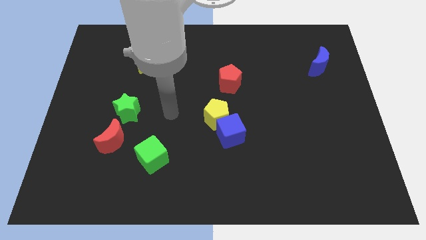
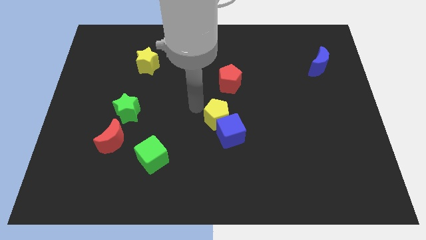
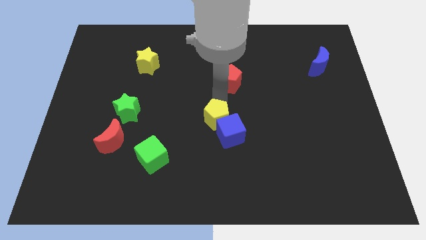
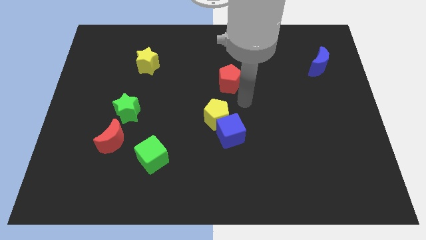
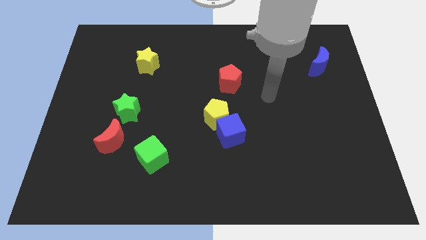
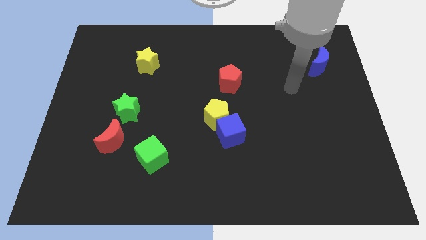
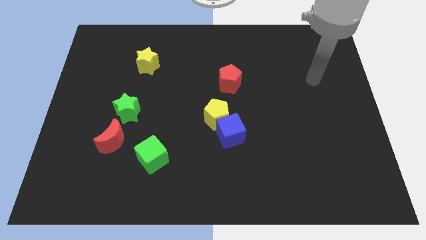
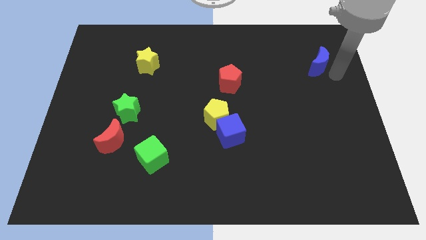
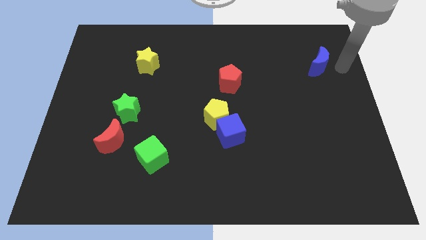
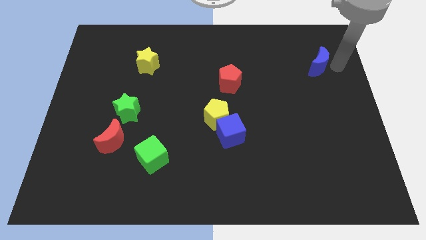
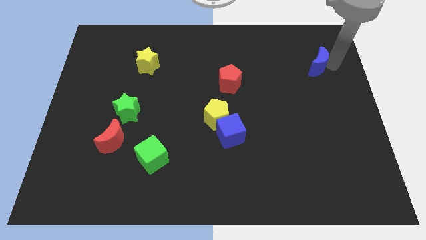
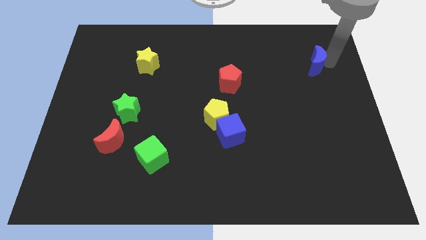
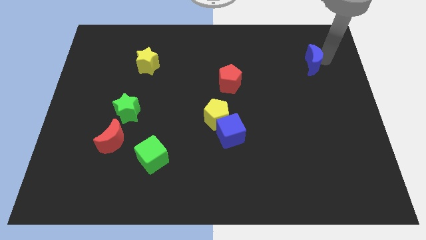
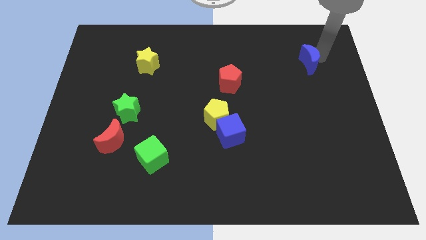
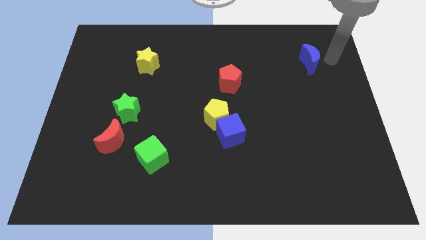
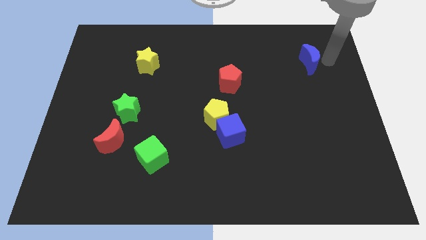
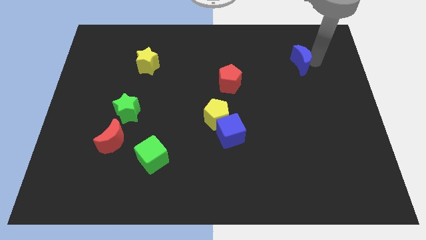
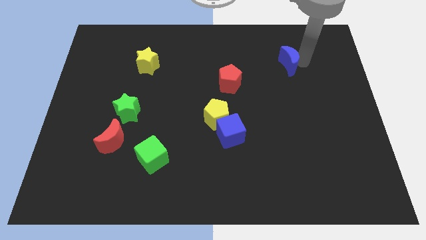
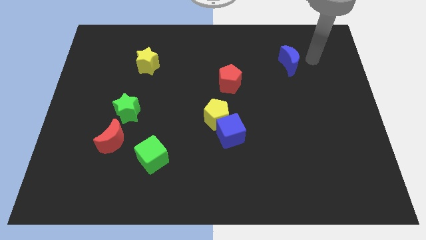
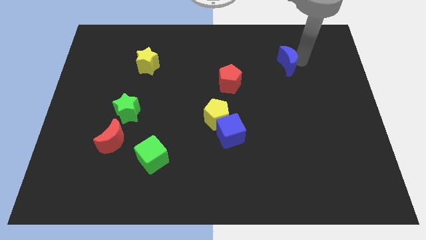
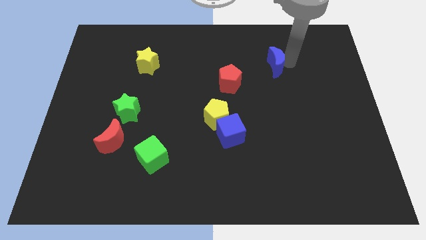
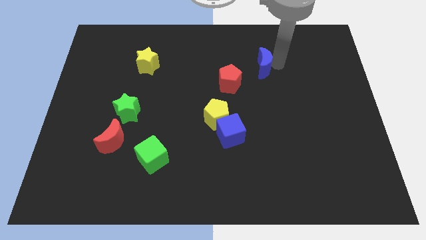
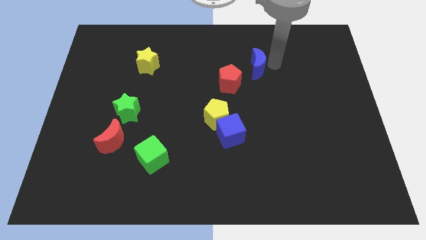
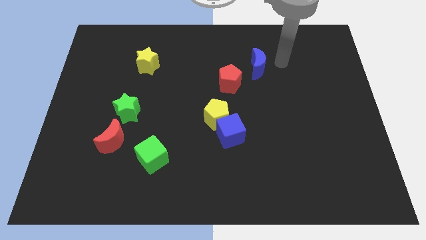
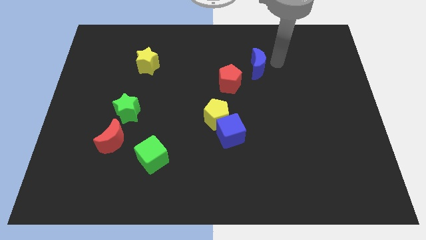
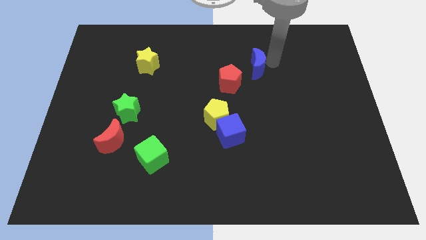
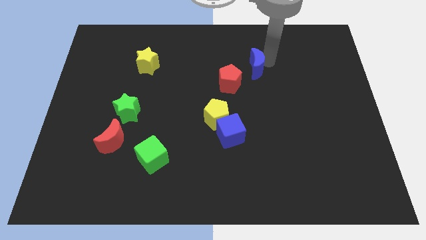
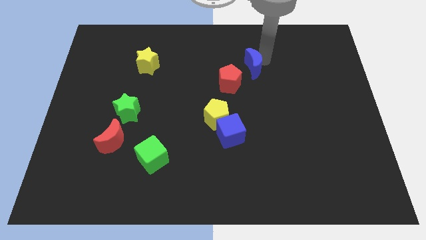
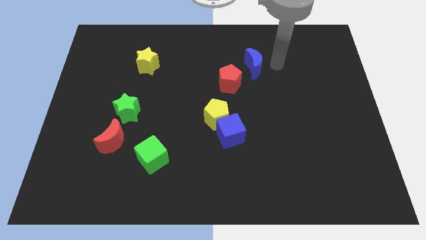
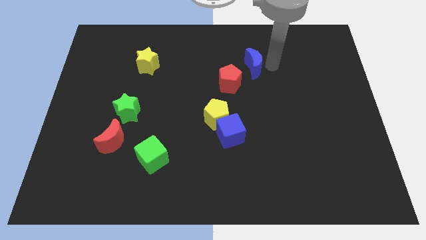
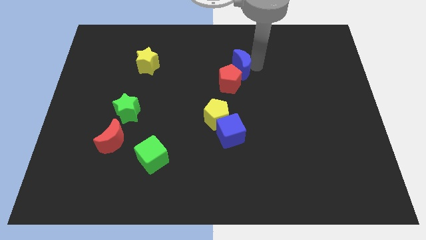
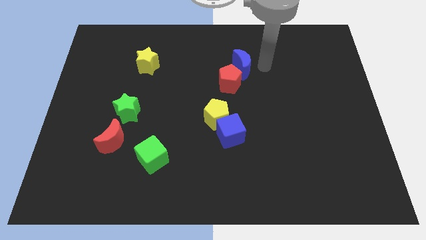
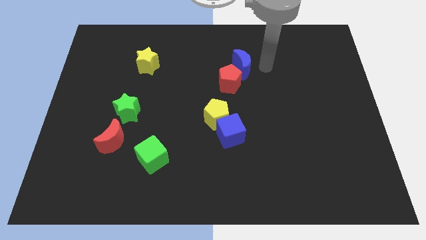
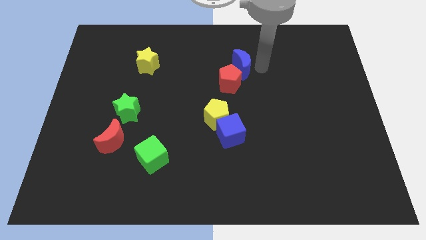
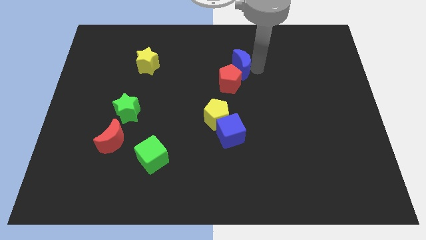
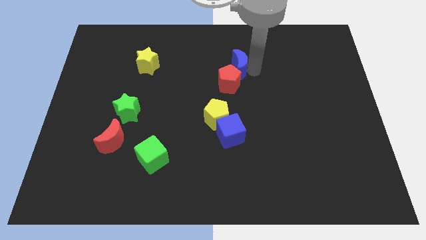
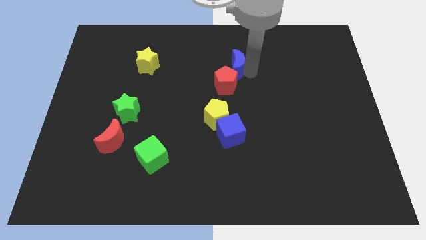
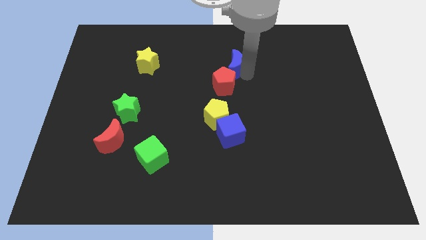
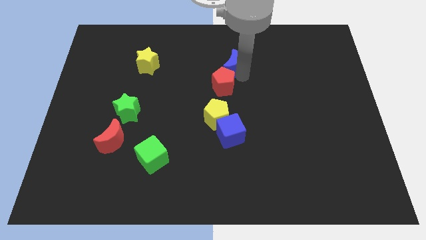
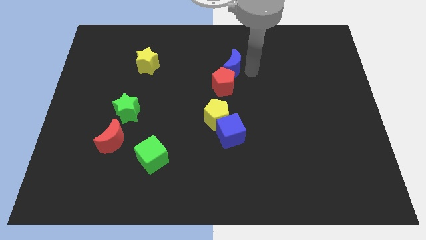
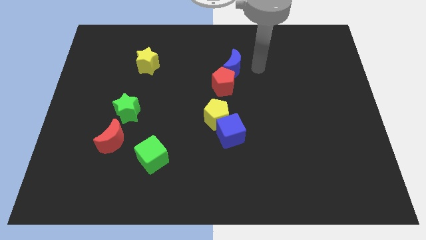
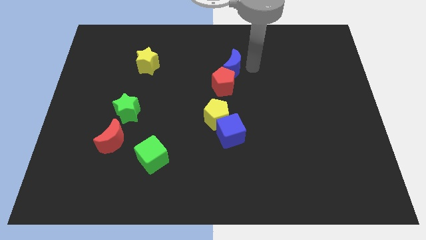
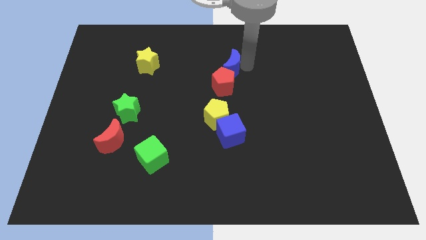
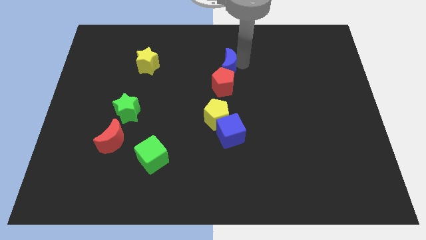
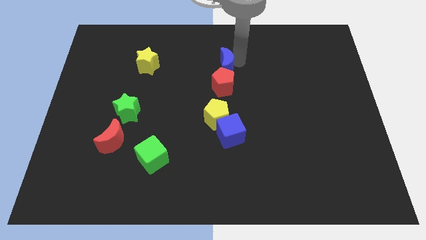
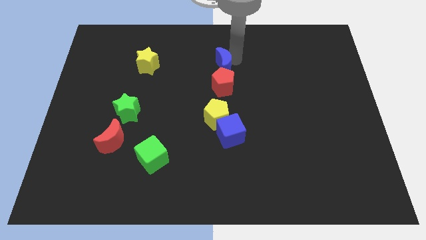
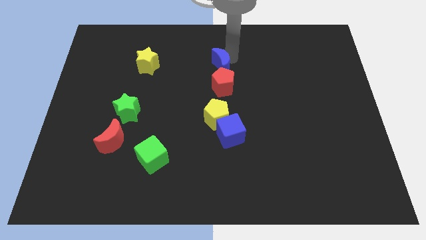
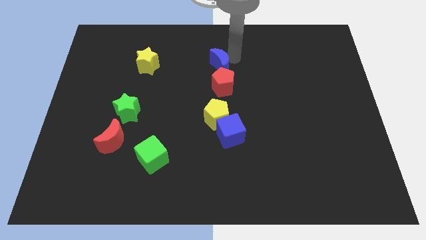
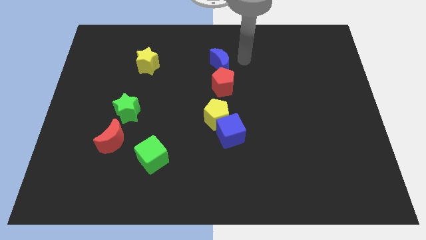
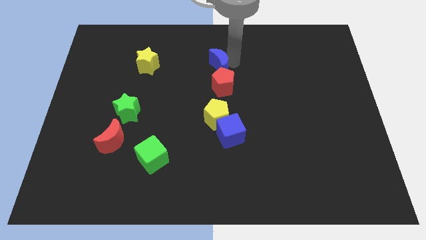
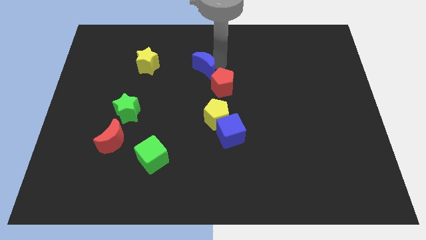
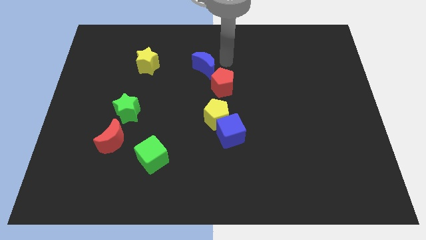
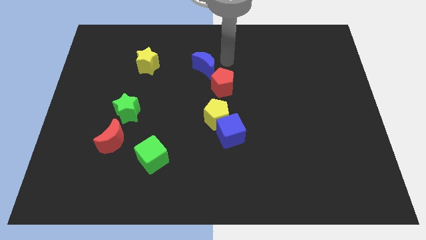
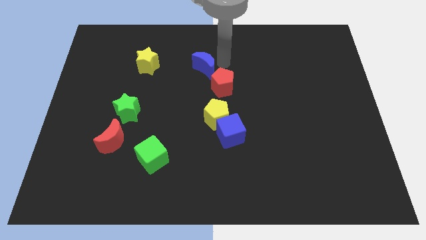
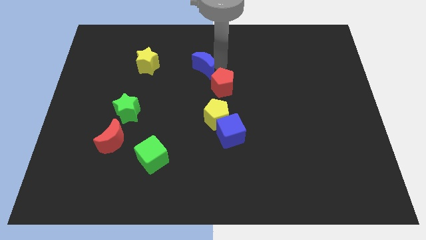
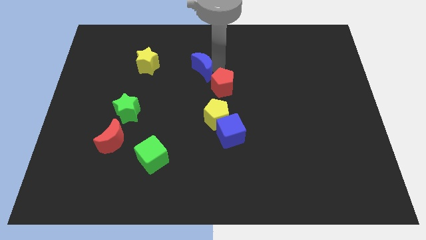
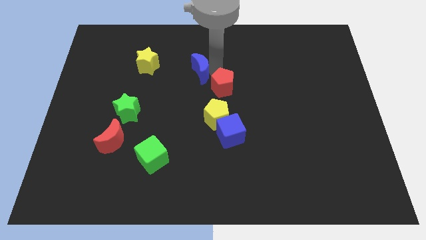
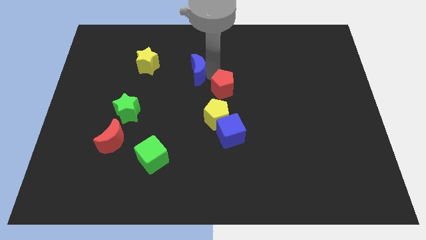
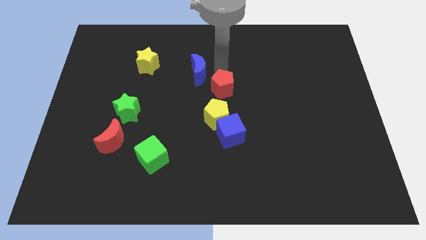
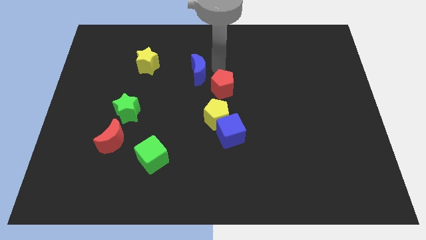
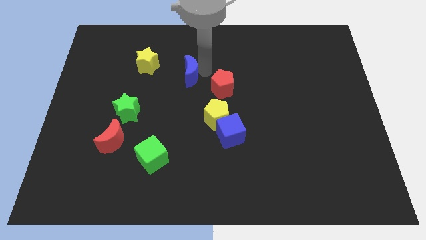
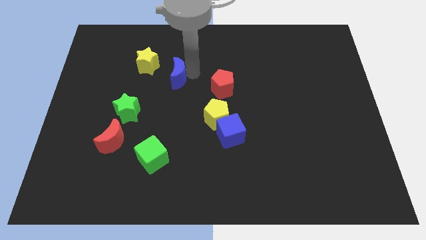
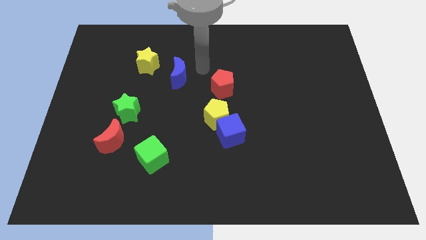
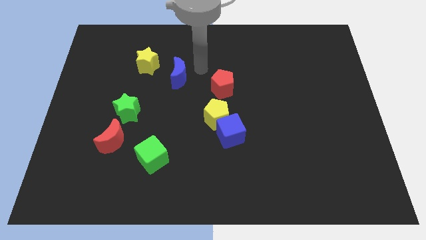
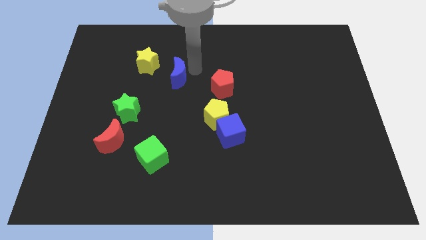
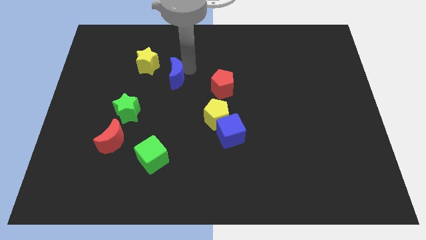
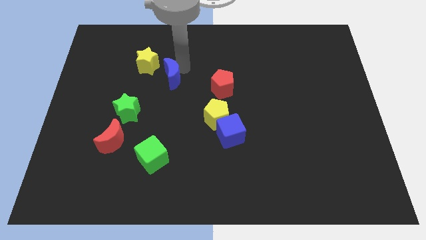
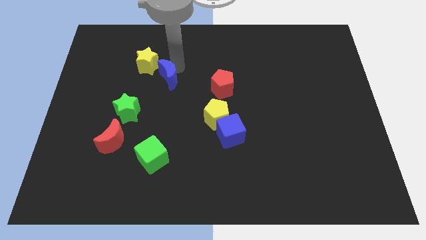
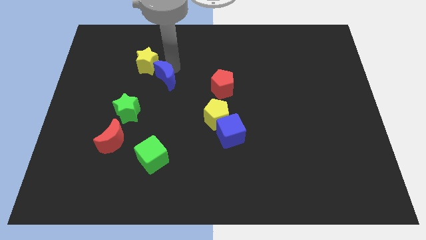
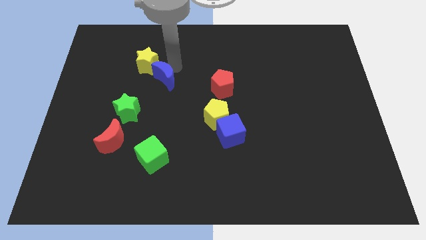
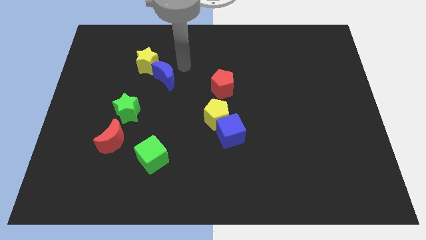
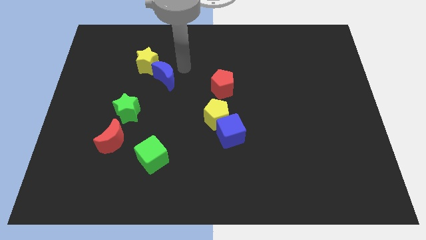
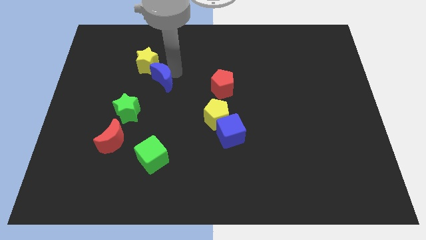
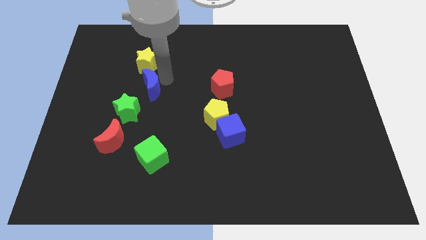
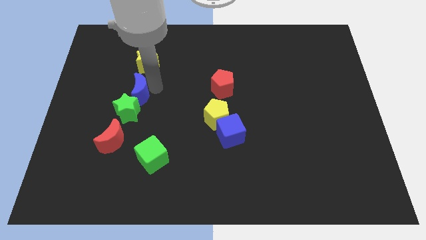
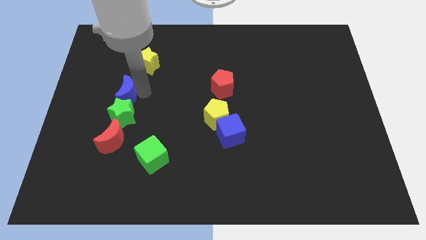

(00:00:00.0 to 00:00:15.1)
put the blue moon to the top left of the green star
